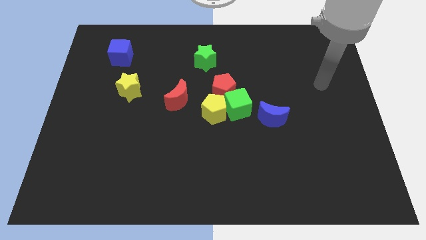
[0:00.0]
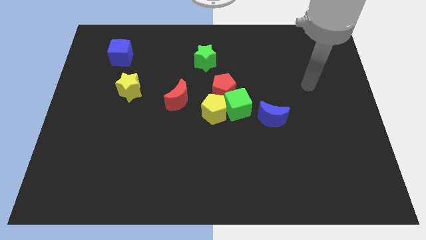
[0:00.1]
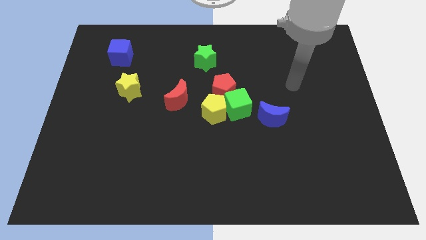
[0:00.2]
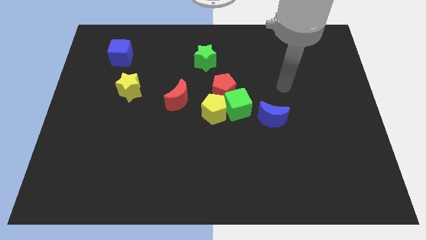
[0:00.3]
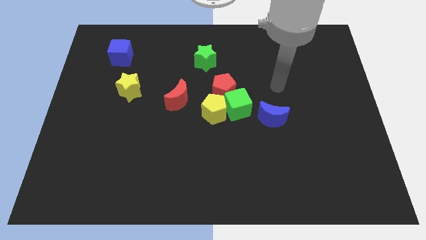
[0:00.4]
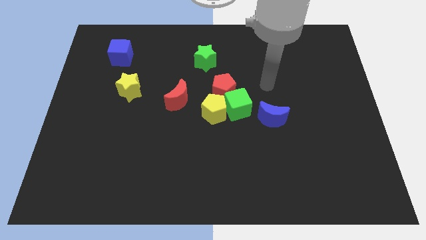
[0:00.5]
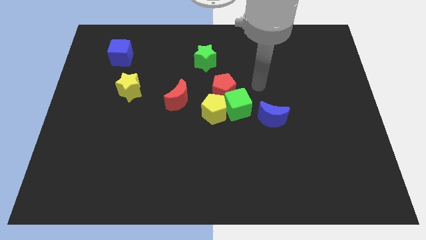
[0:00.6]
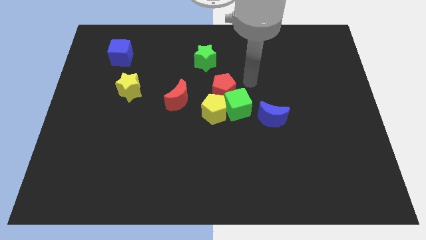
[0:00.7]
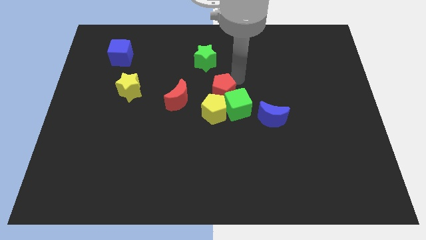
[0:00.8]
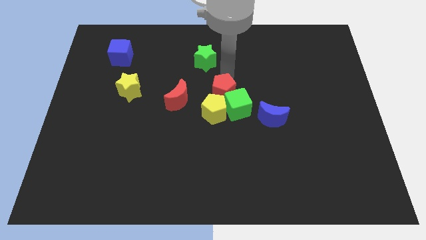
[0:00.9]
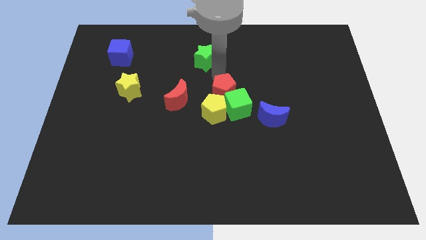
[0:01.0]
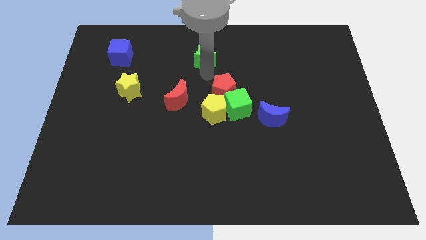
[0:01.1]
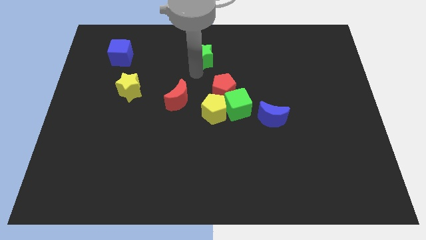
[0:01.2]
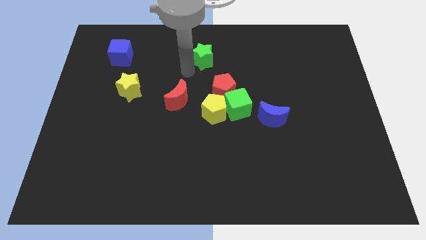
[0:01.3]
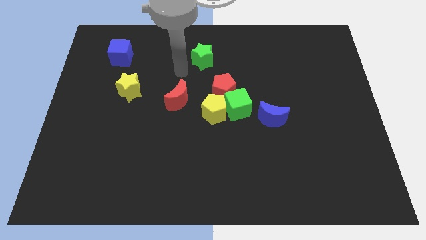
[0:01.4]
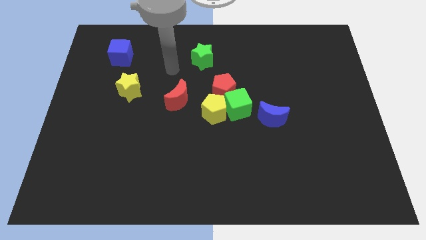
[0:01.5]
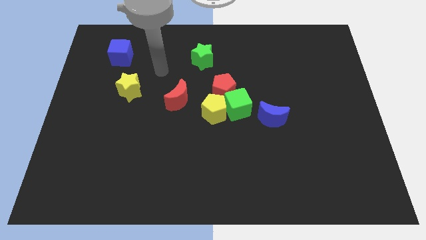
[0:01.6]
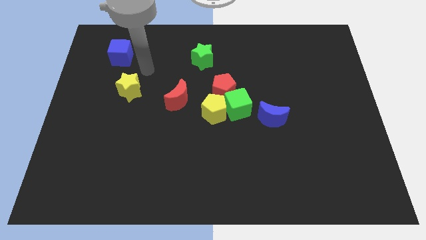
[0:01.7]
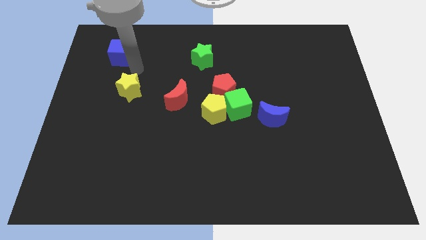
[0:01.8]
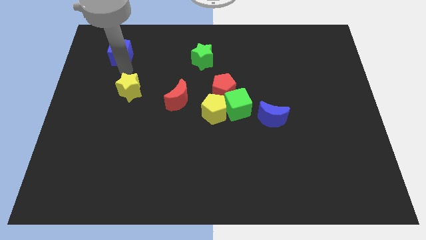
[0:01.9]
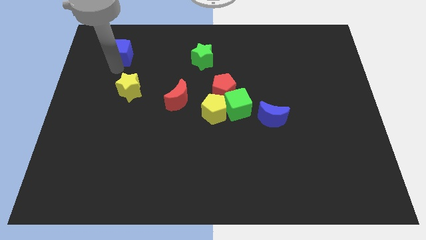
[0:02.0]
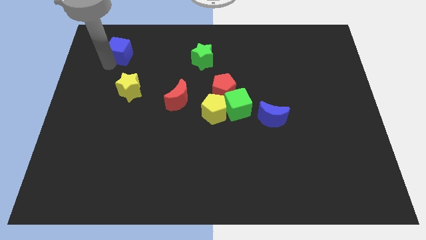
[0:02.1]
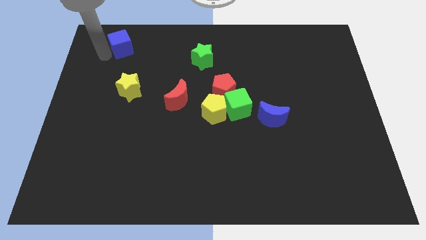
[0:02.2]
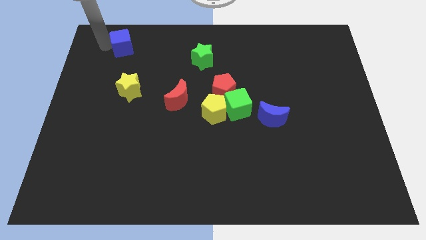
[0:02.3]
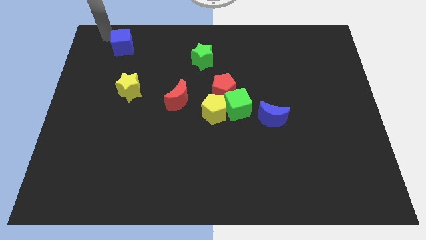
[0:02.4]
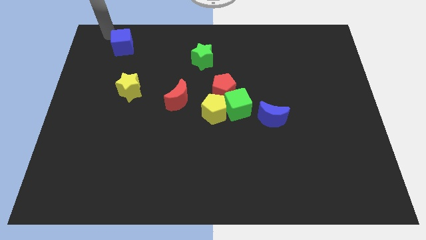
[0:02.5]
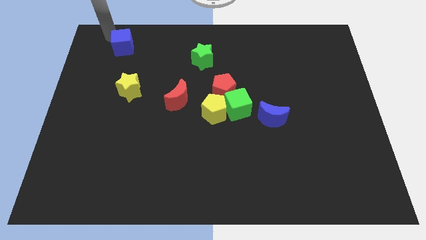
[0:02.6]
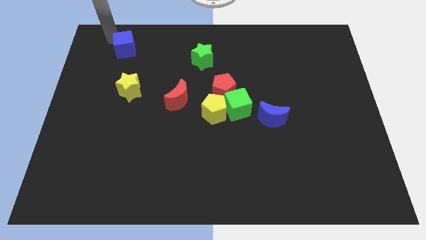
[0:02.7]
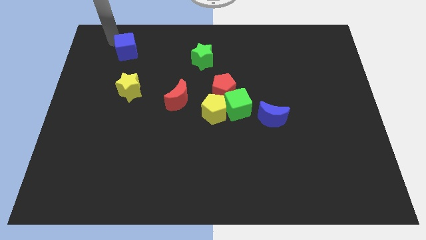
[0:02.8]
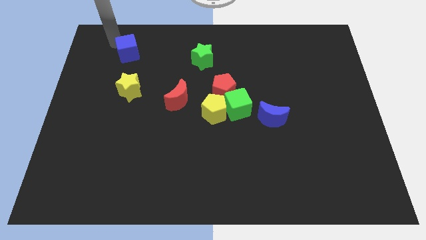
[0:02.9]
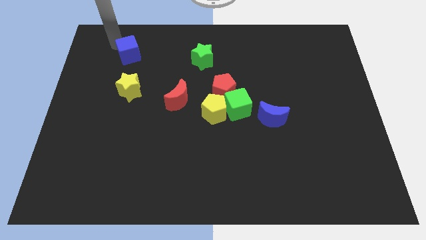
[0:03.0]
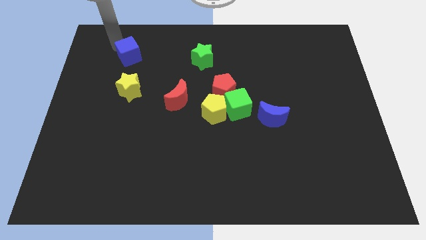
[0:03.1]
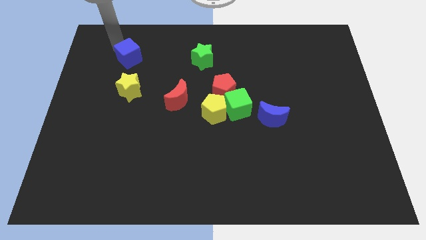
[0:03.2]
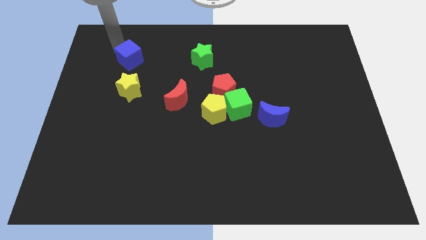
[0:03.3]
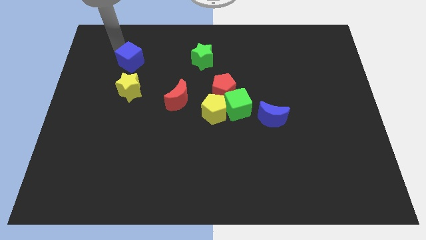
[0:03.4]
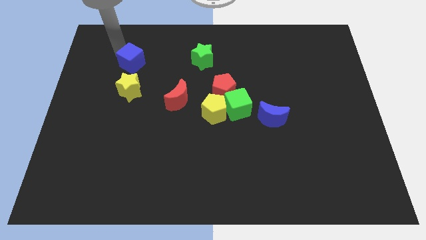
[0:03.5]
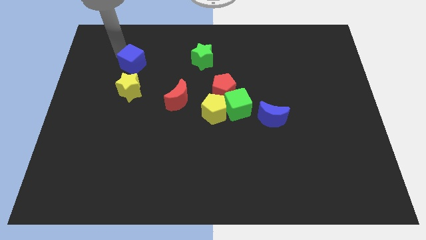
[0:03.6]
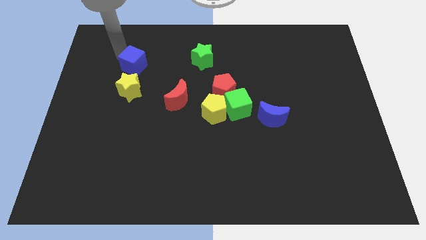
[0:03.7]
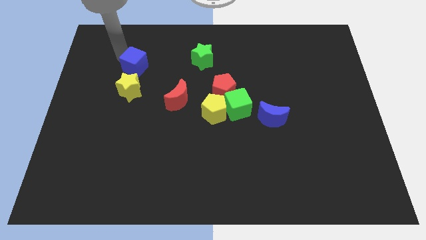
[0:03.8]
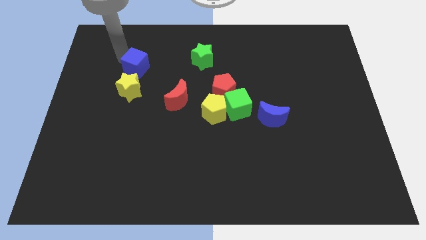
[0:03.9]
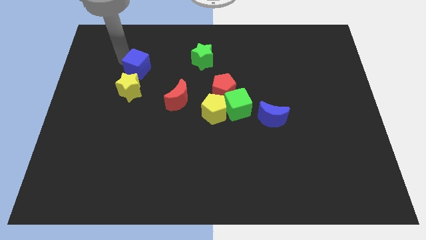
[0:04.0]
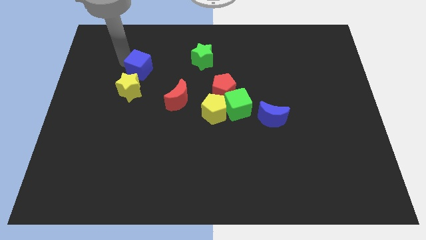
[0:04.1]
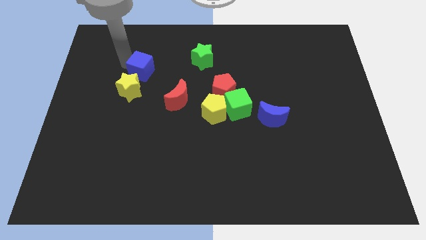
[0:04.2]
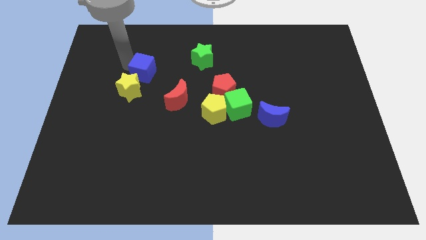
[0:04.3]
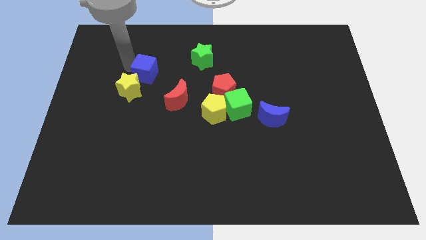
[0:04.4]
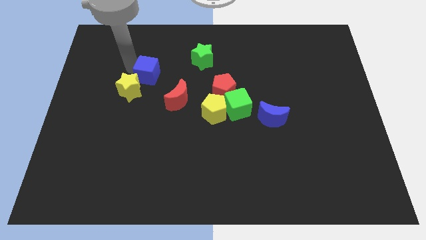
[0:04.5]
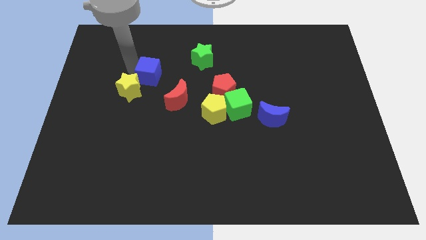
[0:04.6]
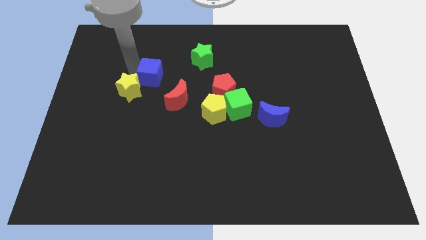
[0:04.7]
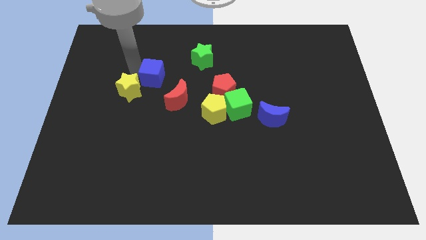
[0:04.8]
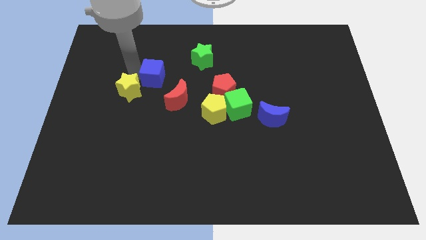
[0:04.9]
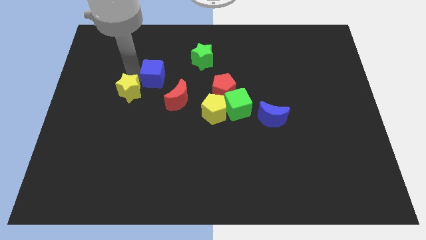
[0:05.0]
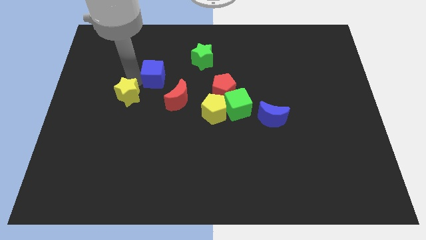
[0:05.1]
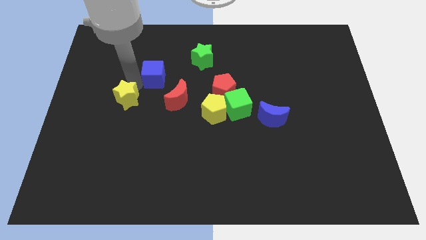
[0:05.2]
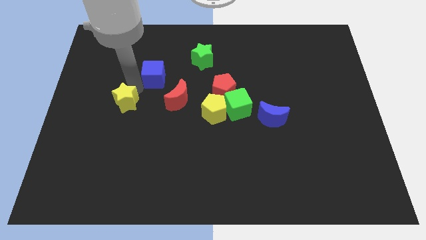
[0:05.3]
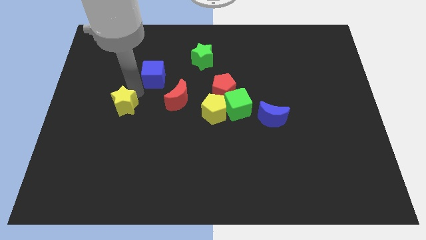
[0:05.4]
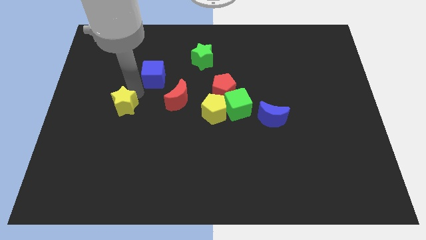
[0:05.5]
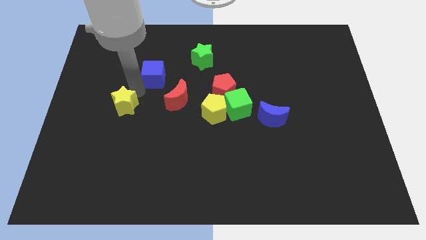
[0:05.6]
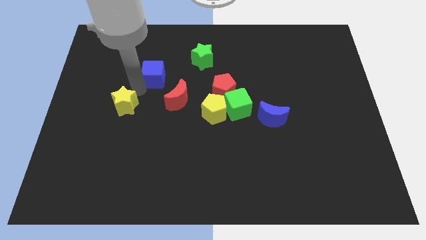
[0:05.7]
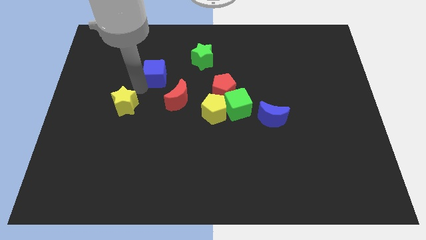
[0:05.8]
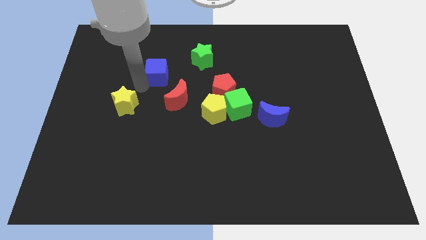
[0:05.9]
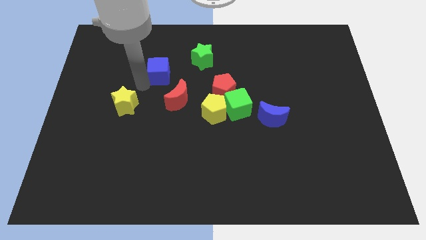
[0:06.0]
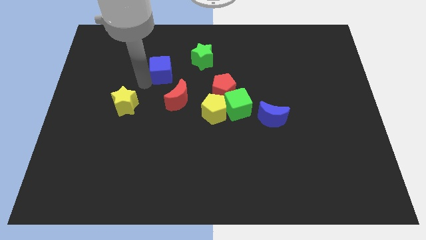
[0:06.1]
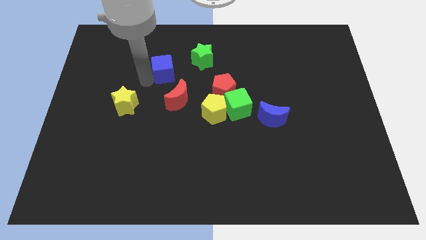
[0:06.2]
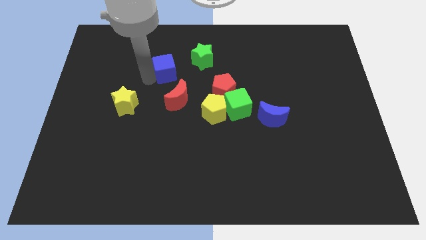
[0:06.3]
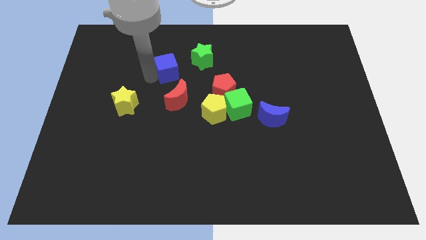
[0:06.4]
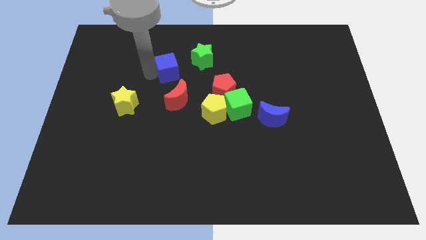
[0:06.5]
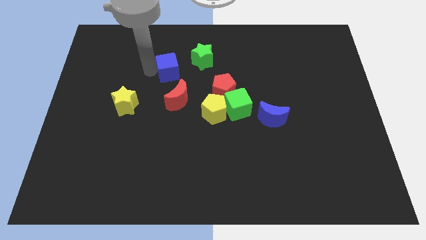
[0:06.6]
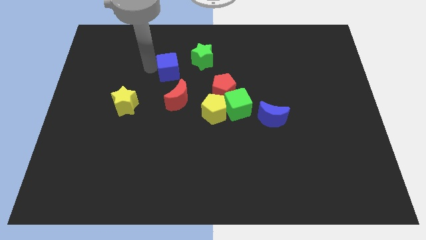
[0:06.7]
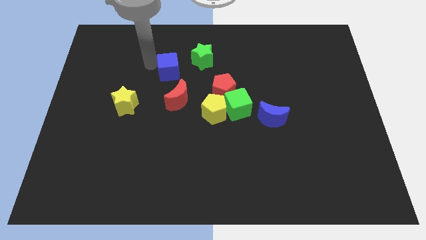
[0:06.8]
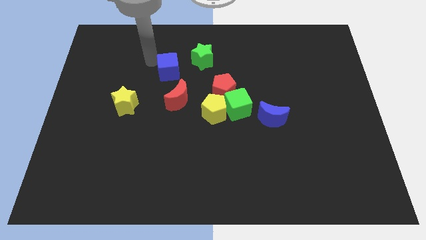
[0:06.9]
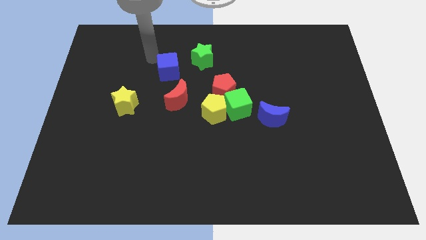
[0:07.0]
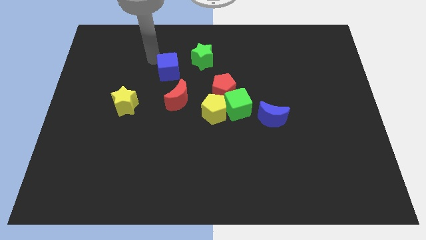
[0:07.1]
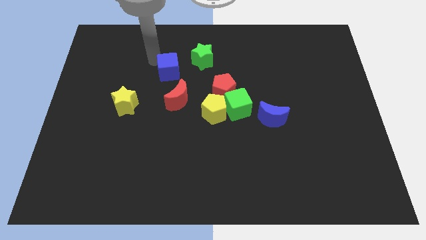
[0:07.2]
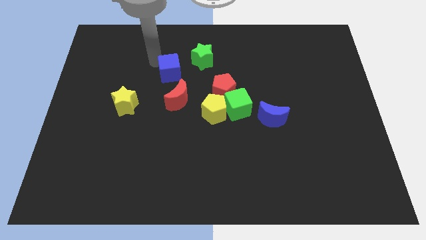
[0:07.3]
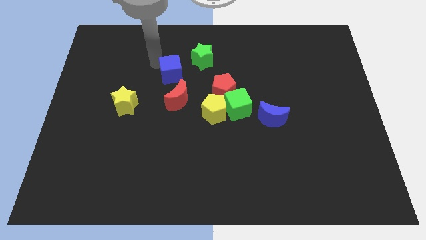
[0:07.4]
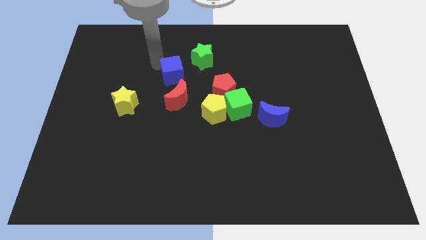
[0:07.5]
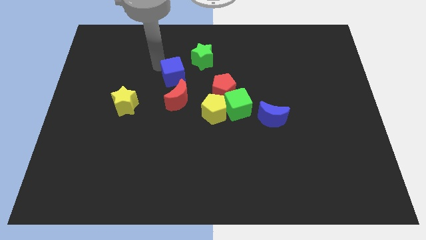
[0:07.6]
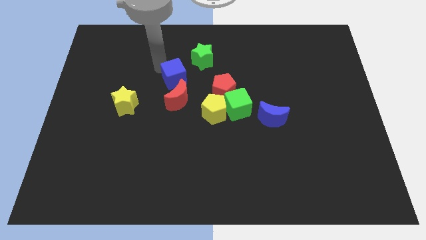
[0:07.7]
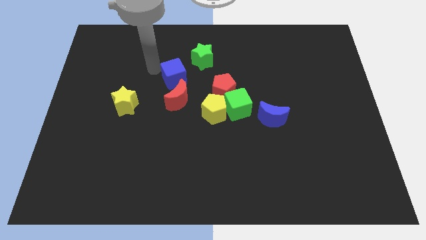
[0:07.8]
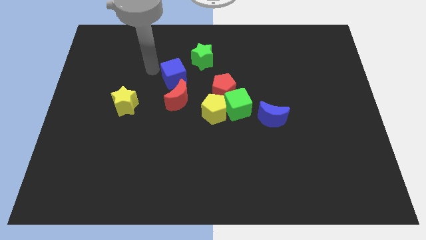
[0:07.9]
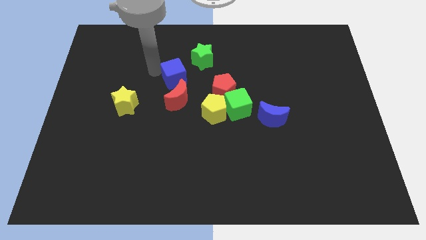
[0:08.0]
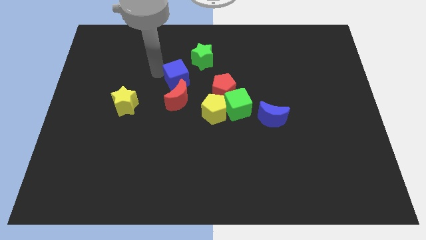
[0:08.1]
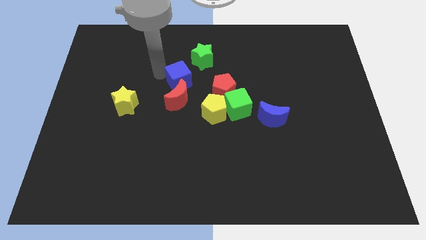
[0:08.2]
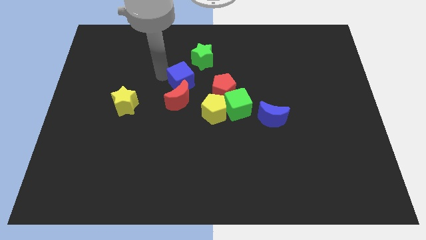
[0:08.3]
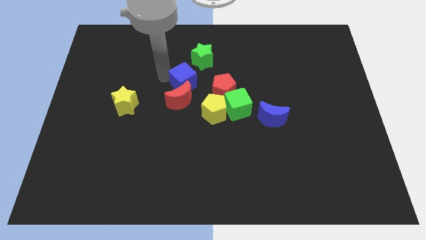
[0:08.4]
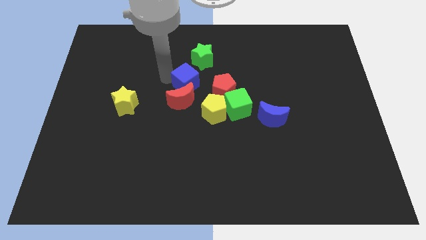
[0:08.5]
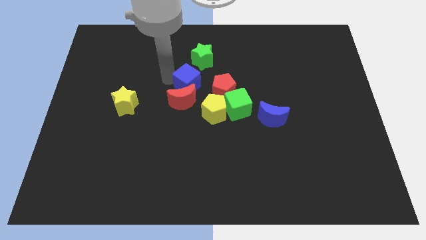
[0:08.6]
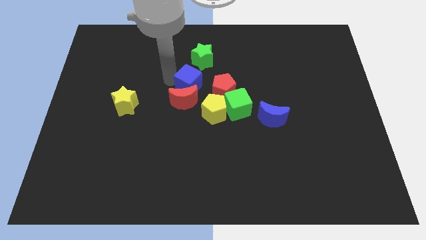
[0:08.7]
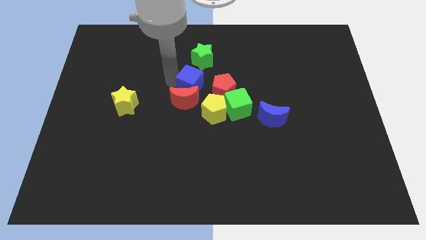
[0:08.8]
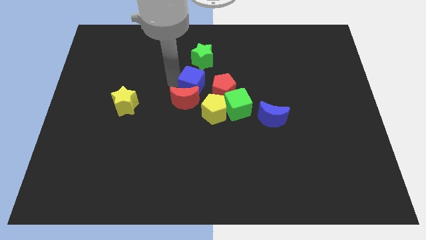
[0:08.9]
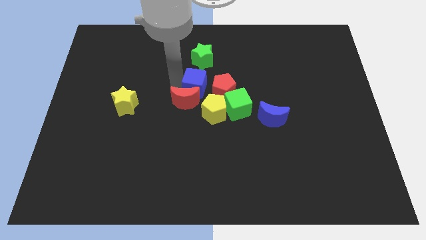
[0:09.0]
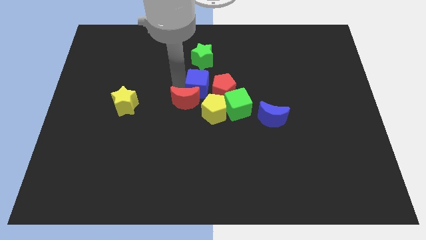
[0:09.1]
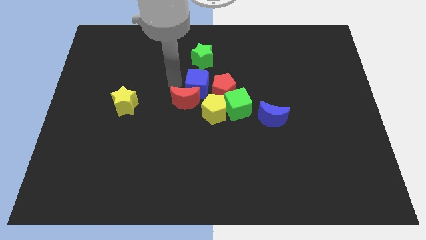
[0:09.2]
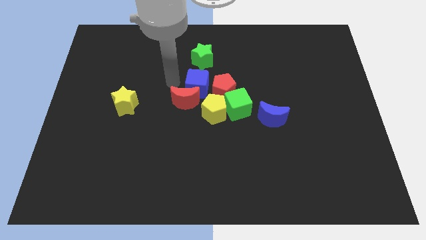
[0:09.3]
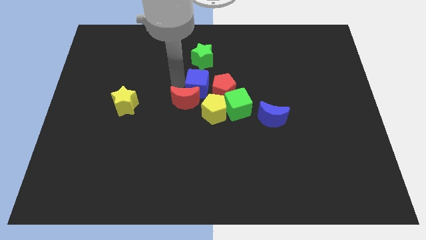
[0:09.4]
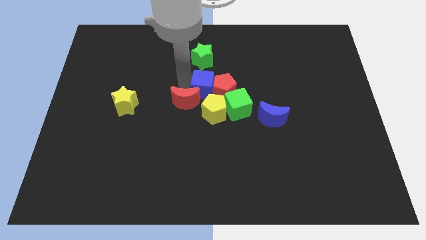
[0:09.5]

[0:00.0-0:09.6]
move the blue cube to the red pentagon
